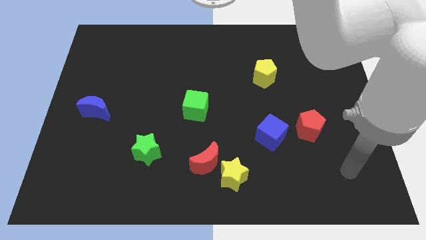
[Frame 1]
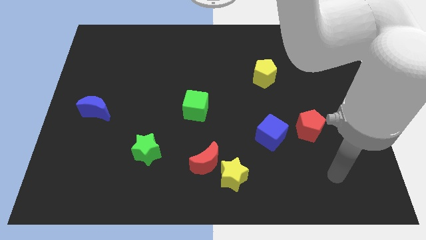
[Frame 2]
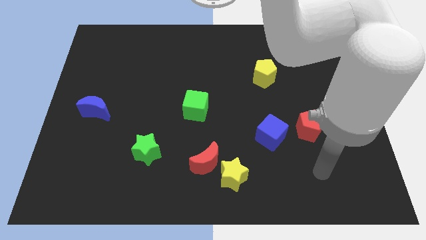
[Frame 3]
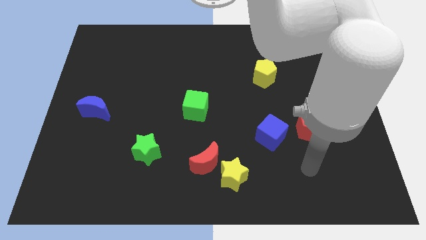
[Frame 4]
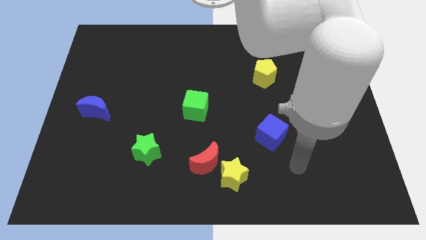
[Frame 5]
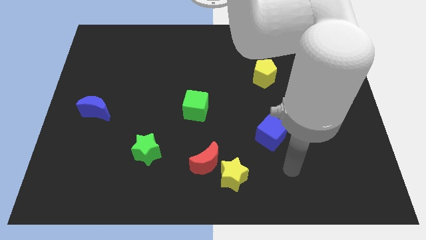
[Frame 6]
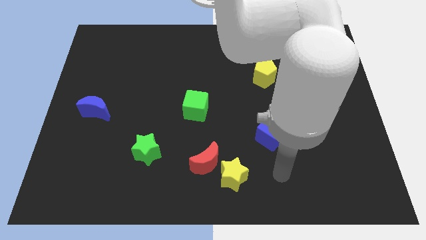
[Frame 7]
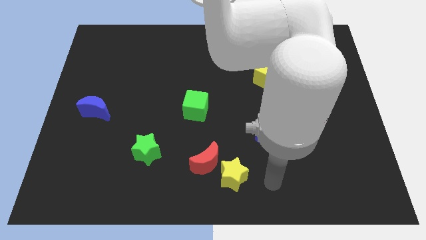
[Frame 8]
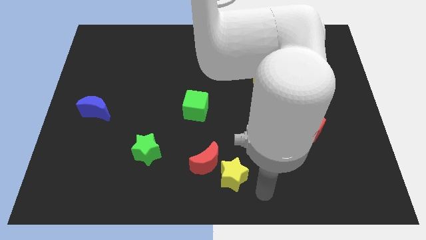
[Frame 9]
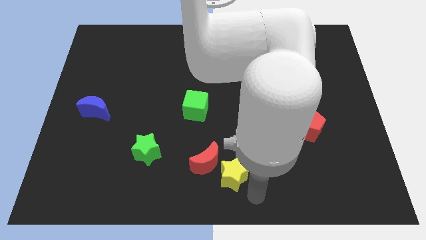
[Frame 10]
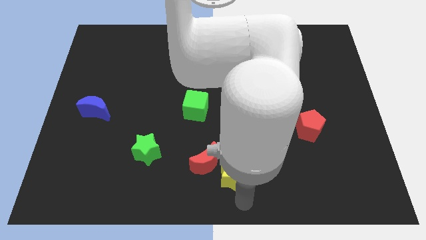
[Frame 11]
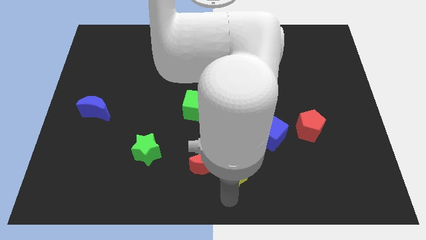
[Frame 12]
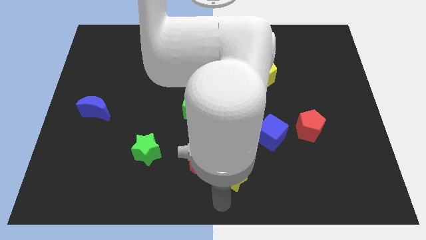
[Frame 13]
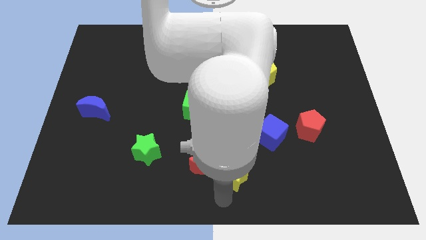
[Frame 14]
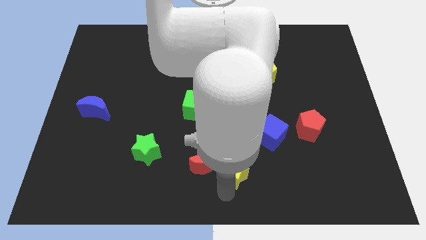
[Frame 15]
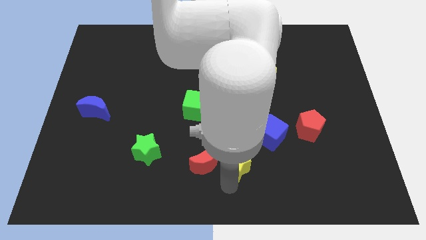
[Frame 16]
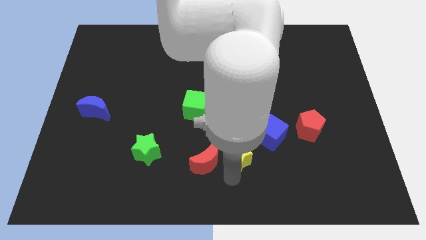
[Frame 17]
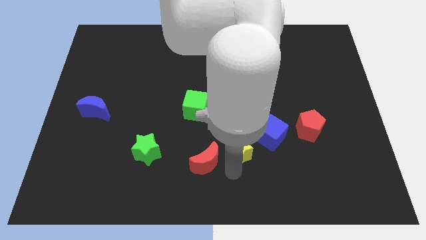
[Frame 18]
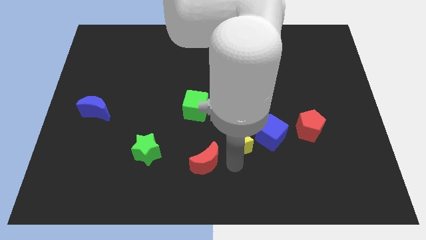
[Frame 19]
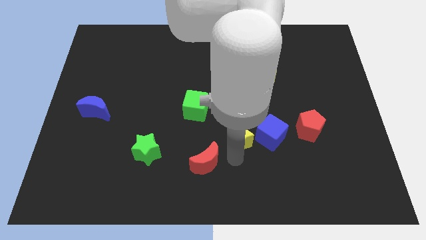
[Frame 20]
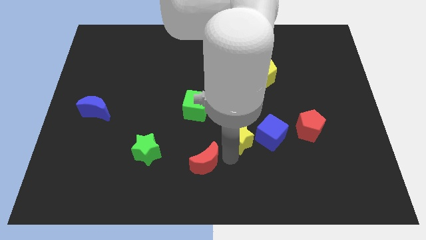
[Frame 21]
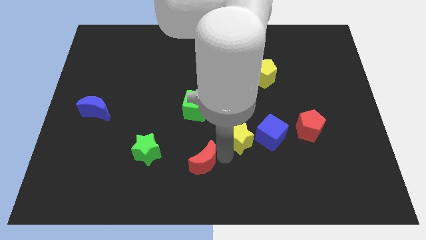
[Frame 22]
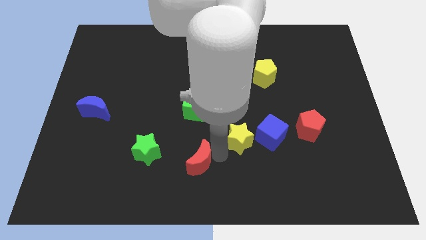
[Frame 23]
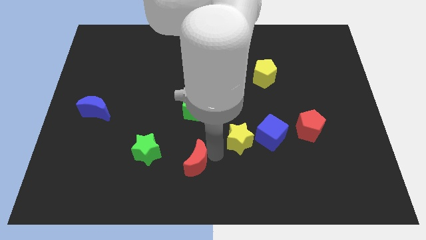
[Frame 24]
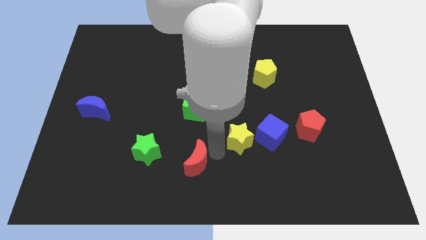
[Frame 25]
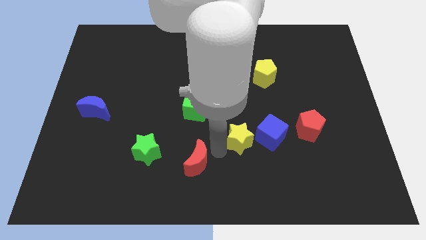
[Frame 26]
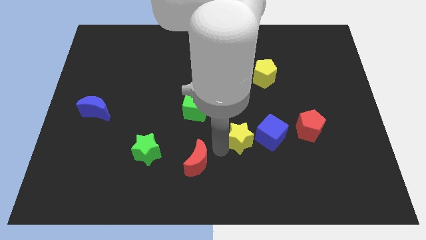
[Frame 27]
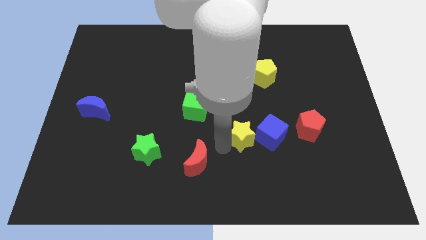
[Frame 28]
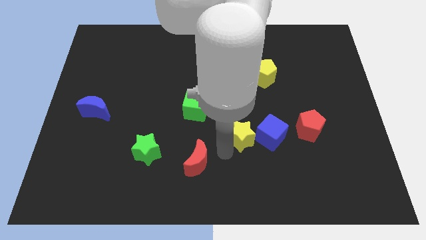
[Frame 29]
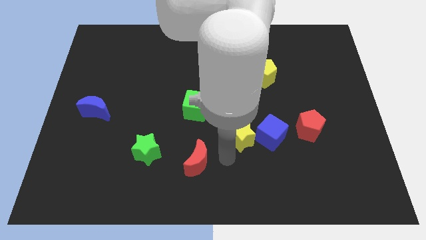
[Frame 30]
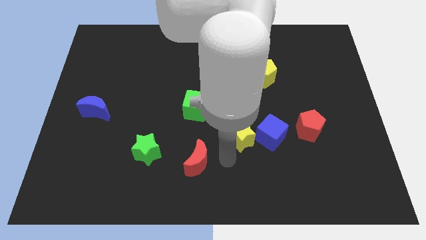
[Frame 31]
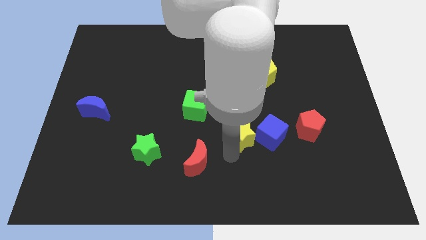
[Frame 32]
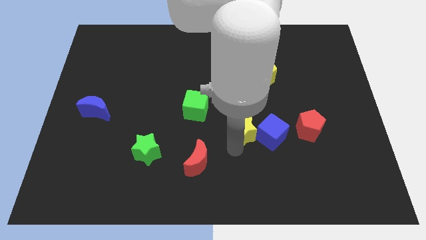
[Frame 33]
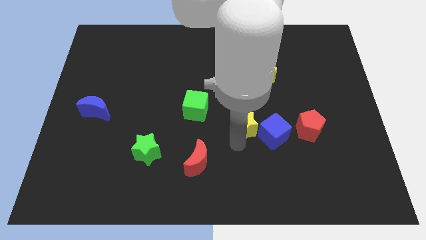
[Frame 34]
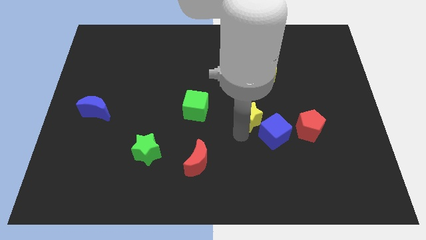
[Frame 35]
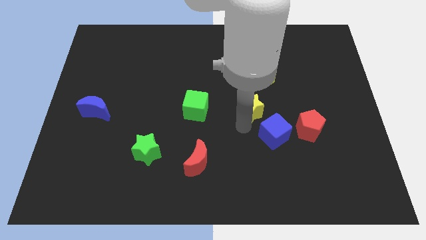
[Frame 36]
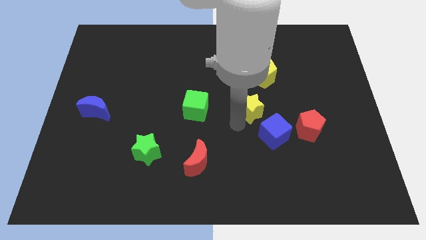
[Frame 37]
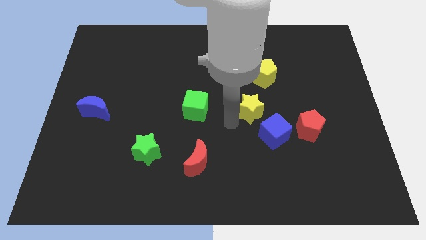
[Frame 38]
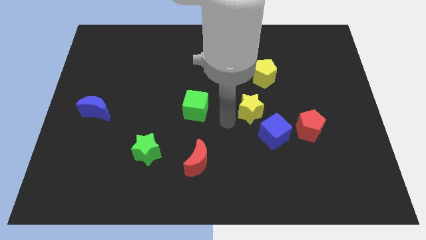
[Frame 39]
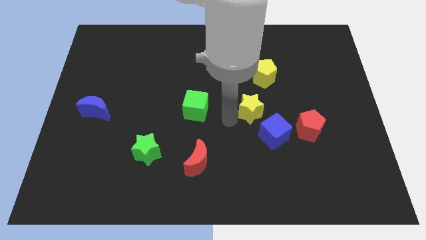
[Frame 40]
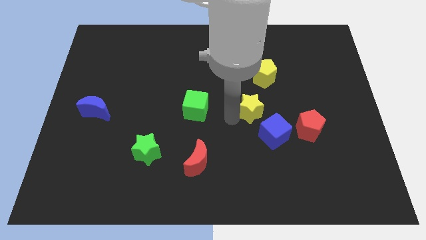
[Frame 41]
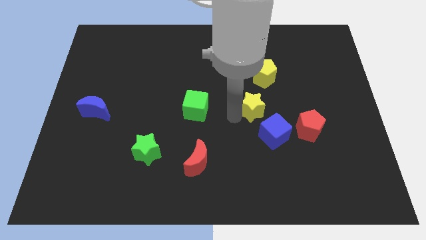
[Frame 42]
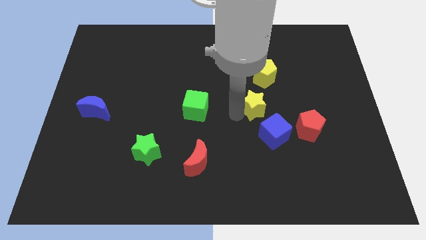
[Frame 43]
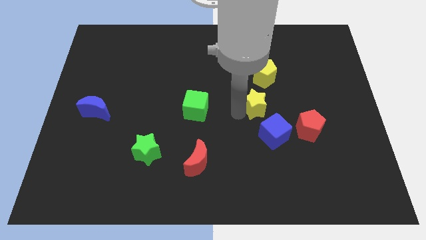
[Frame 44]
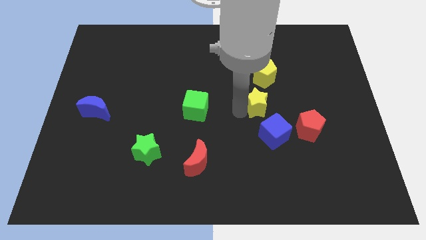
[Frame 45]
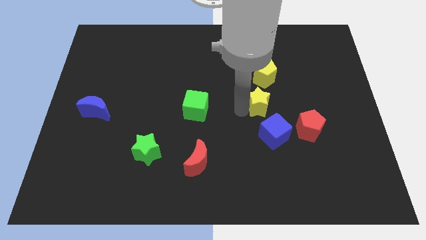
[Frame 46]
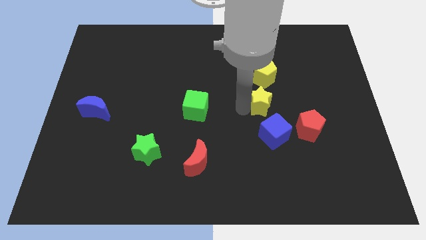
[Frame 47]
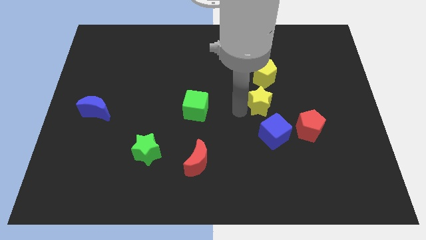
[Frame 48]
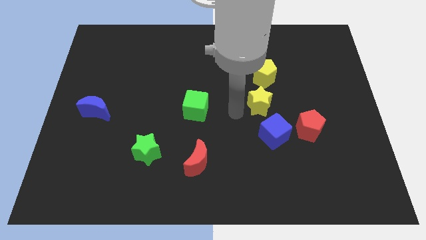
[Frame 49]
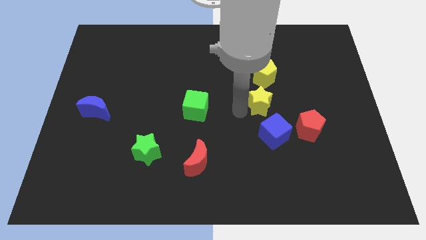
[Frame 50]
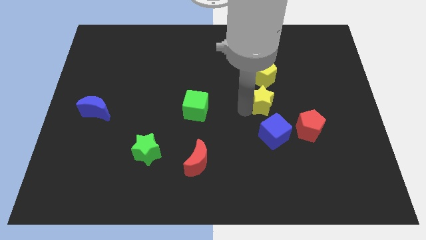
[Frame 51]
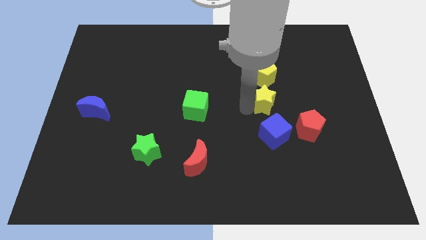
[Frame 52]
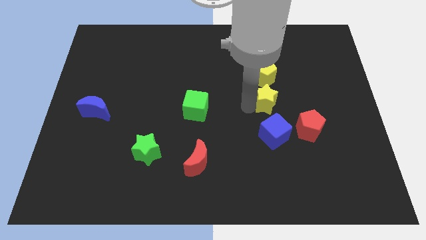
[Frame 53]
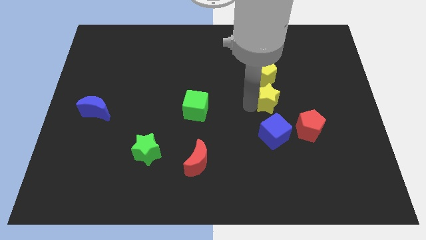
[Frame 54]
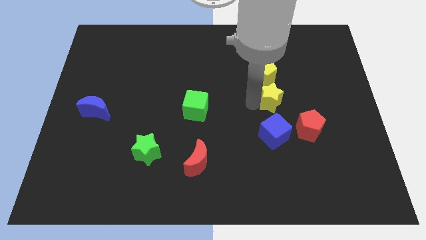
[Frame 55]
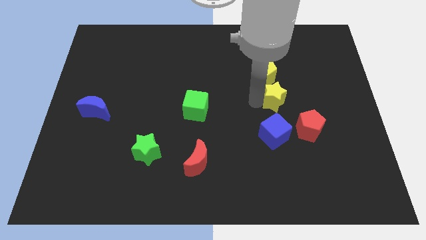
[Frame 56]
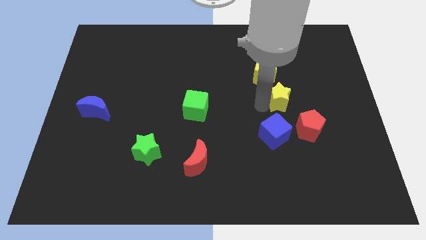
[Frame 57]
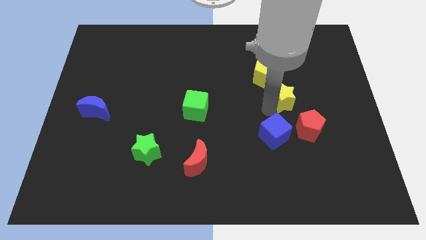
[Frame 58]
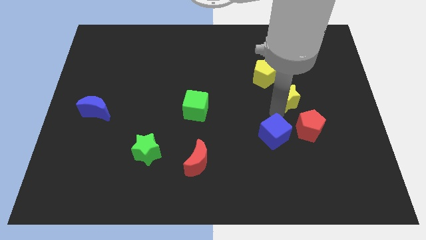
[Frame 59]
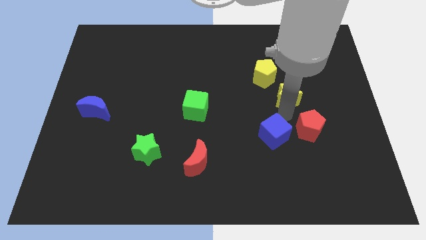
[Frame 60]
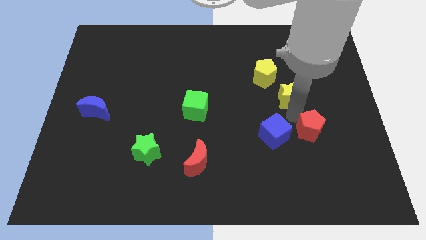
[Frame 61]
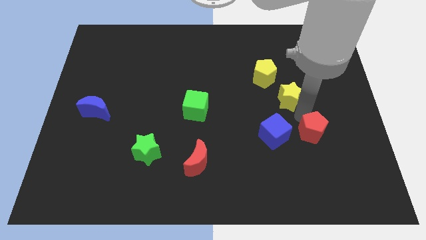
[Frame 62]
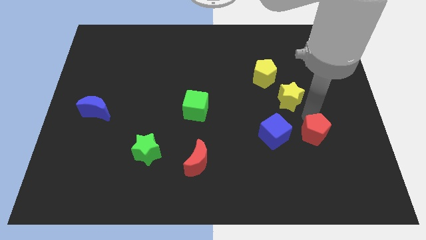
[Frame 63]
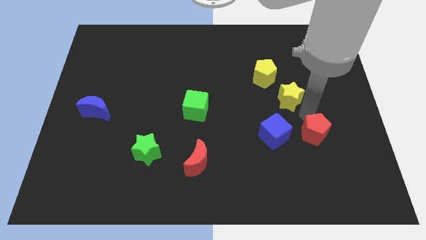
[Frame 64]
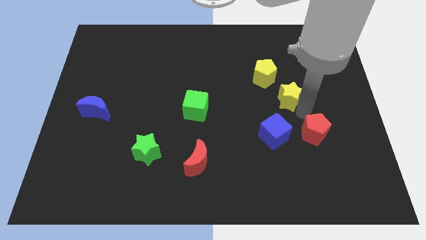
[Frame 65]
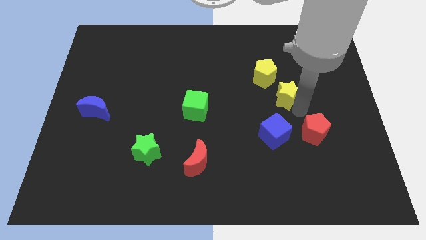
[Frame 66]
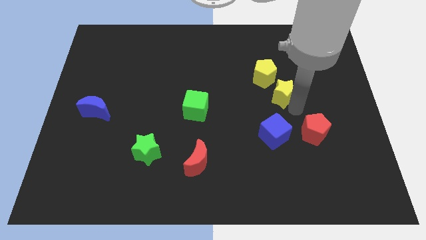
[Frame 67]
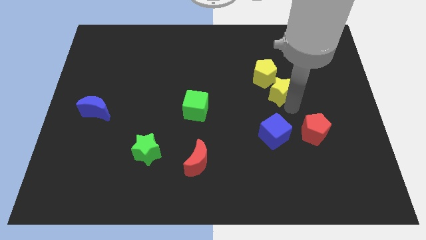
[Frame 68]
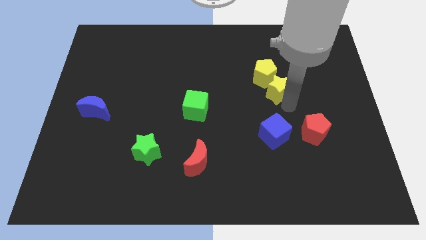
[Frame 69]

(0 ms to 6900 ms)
push the yellow star towards the yellow pentagon
